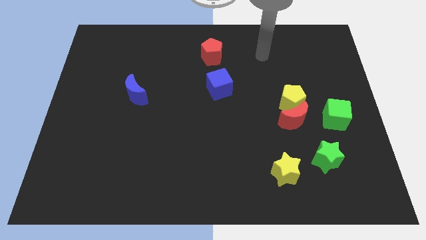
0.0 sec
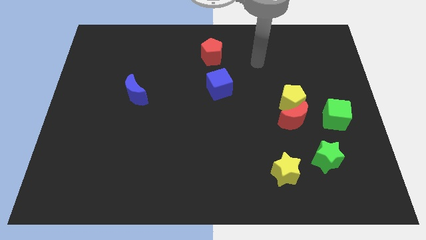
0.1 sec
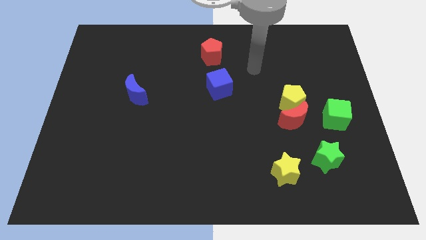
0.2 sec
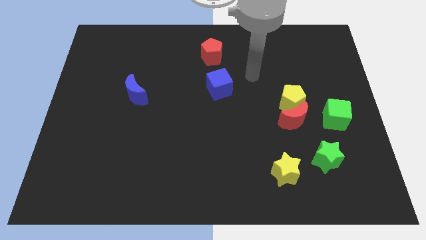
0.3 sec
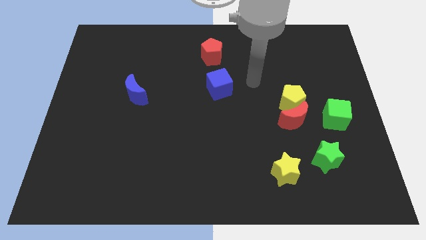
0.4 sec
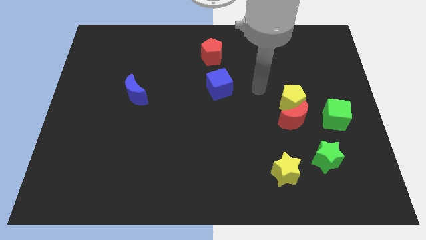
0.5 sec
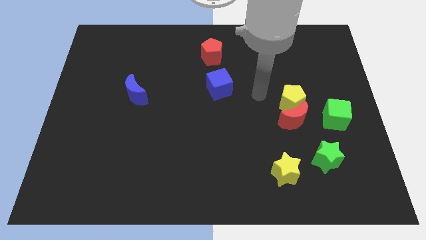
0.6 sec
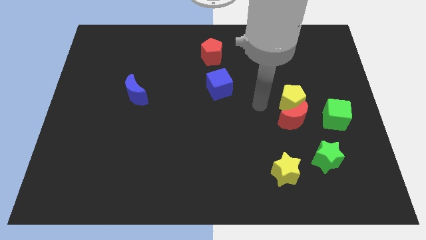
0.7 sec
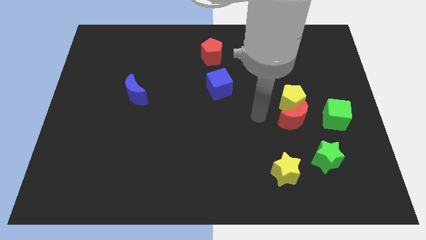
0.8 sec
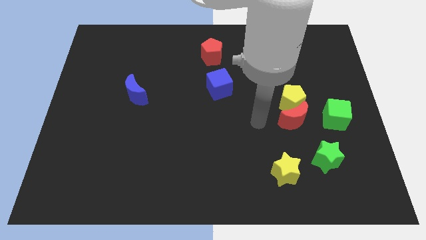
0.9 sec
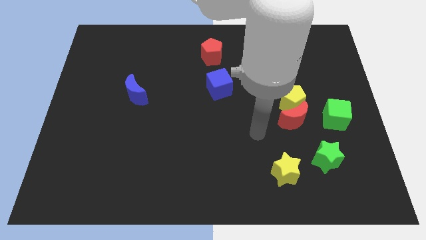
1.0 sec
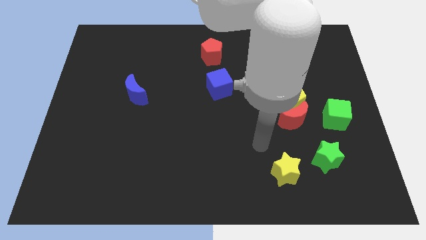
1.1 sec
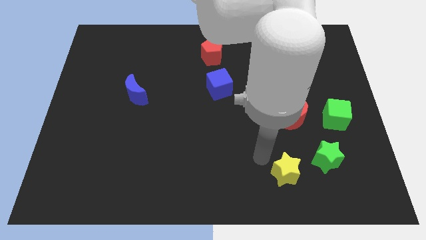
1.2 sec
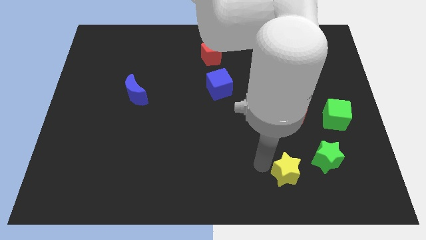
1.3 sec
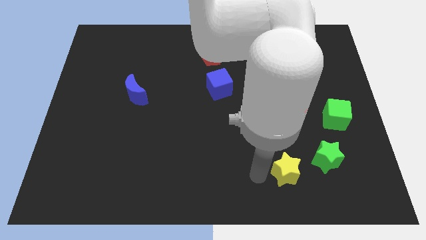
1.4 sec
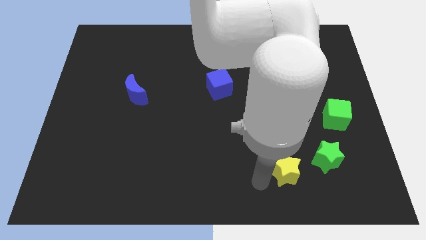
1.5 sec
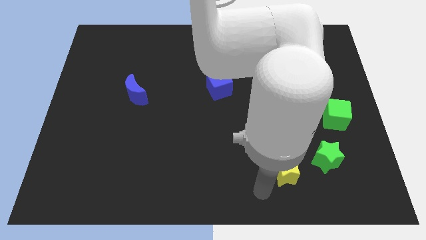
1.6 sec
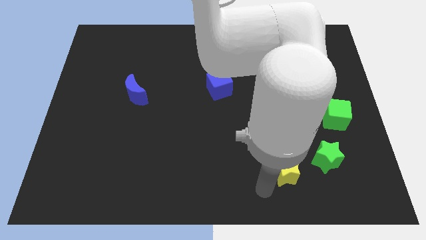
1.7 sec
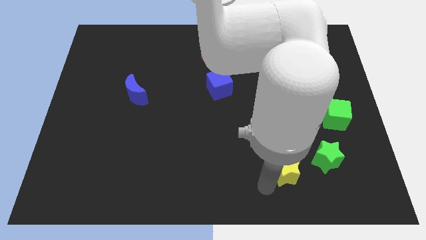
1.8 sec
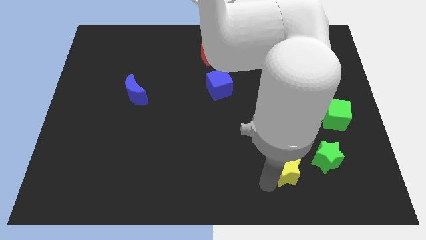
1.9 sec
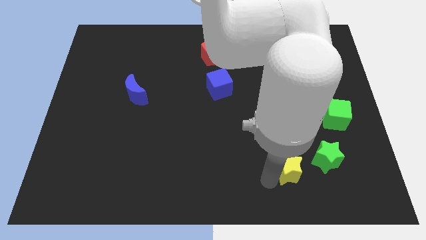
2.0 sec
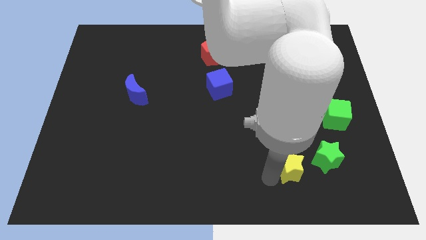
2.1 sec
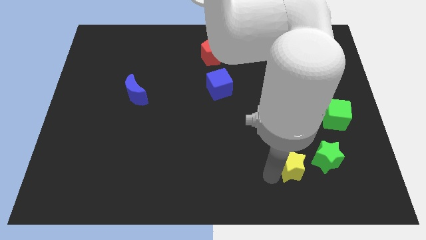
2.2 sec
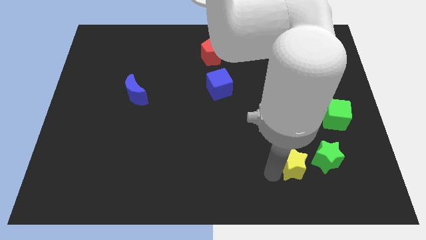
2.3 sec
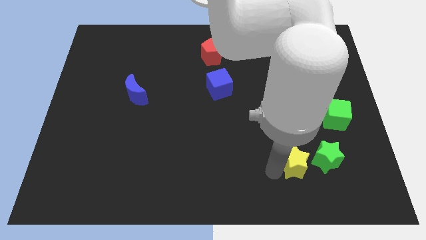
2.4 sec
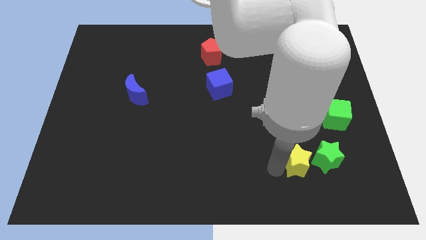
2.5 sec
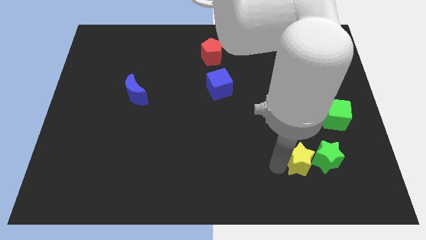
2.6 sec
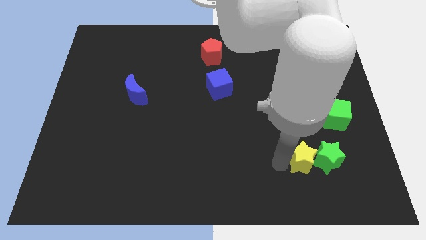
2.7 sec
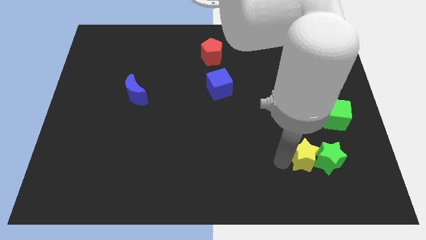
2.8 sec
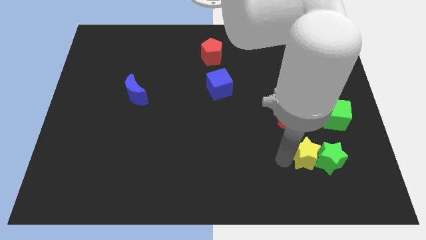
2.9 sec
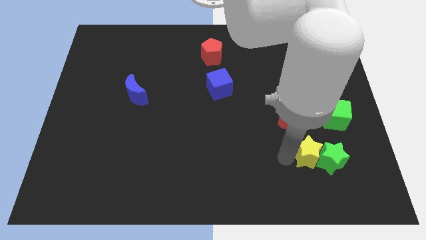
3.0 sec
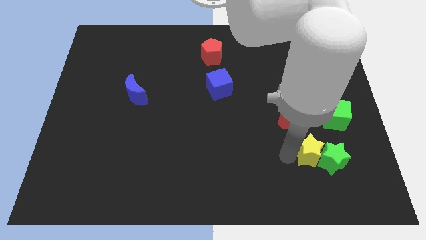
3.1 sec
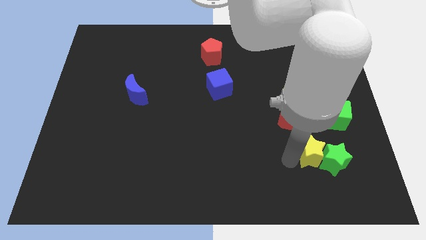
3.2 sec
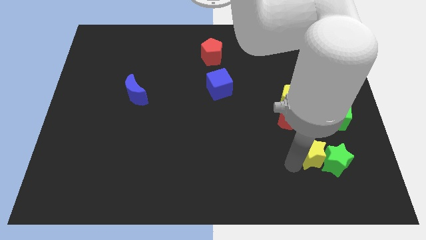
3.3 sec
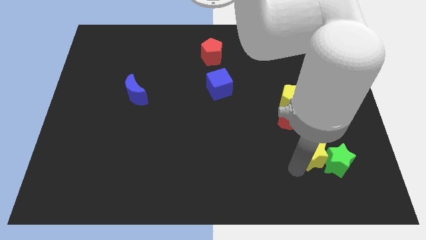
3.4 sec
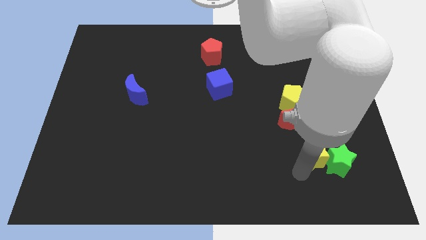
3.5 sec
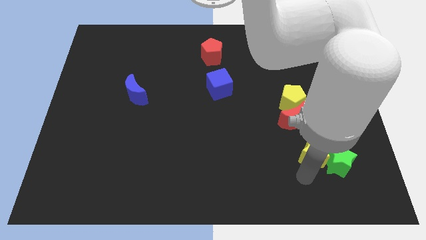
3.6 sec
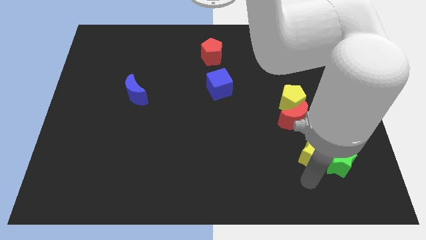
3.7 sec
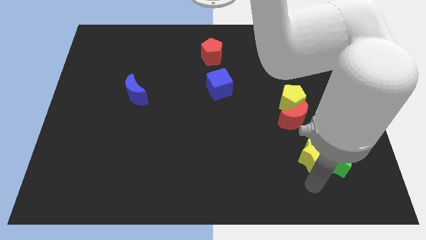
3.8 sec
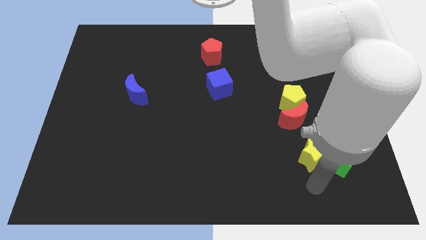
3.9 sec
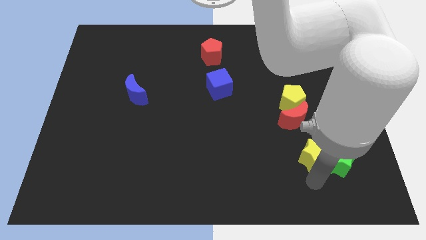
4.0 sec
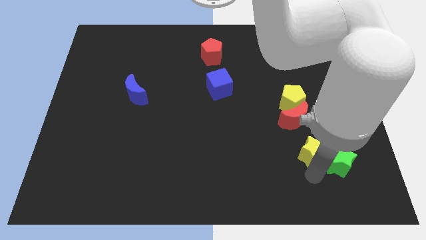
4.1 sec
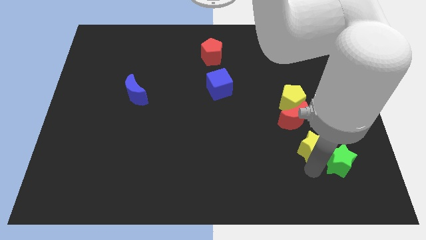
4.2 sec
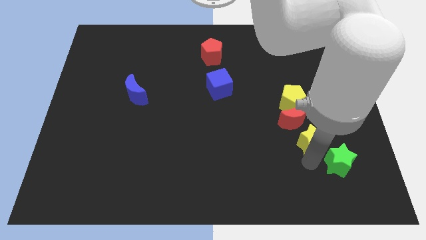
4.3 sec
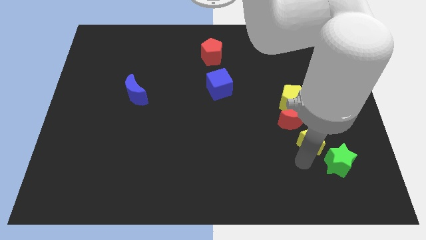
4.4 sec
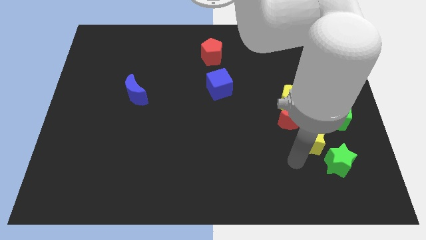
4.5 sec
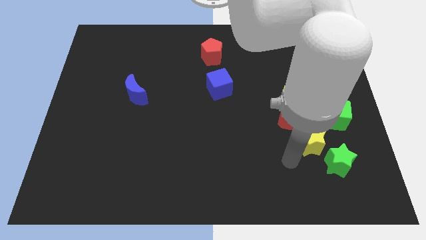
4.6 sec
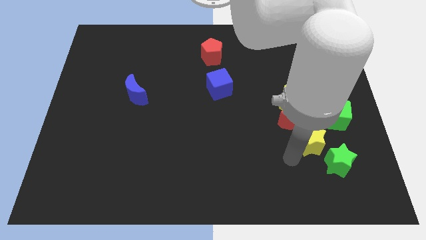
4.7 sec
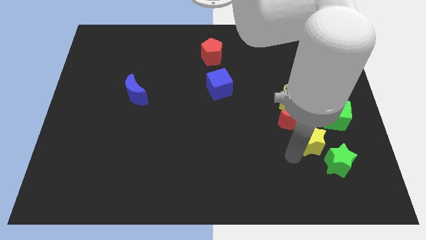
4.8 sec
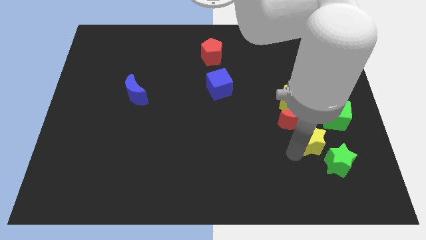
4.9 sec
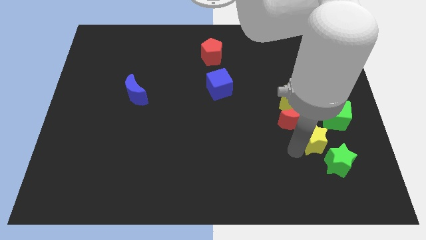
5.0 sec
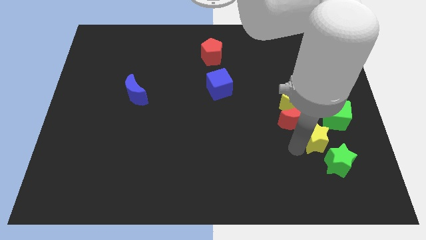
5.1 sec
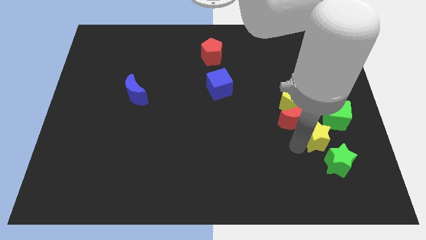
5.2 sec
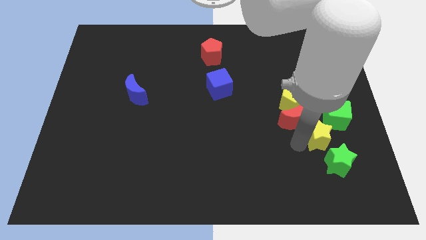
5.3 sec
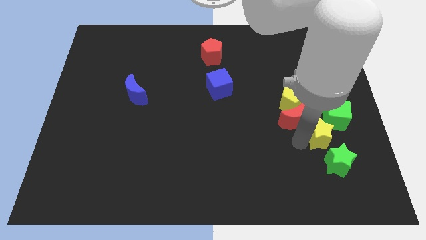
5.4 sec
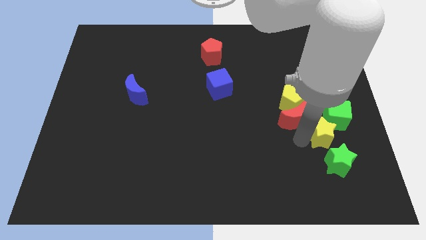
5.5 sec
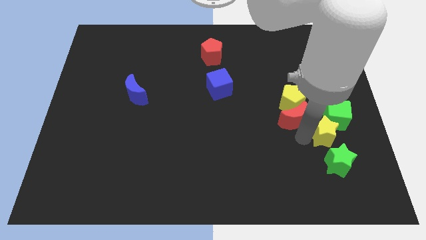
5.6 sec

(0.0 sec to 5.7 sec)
put the yellow star to the green cube

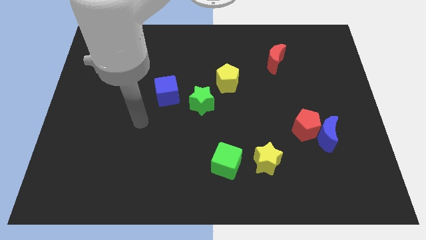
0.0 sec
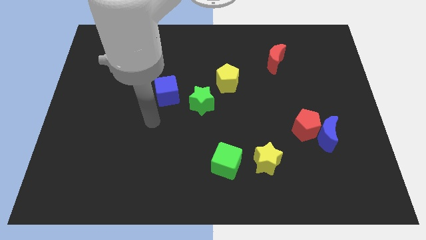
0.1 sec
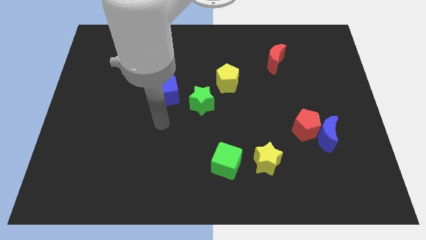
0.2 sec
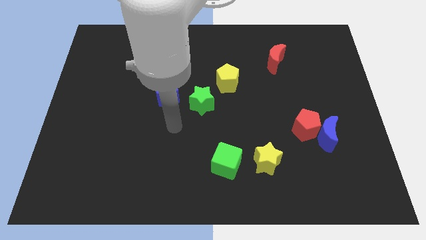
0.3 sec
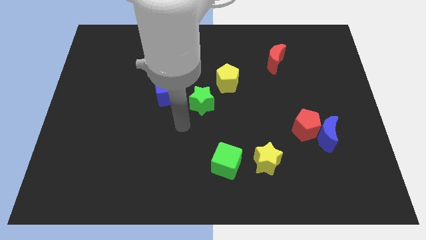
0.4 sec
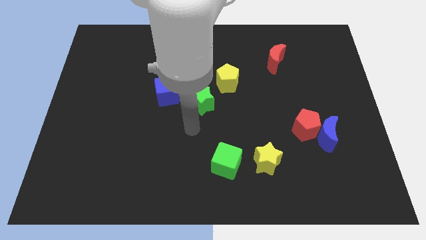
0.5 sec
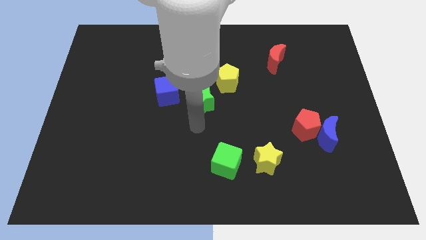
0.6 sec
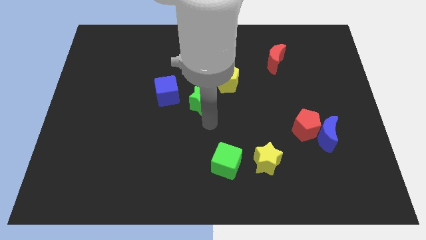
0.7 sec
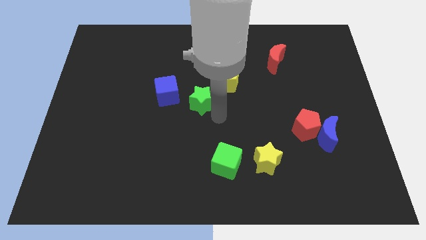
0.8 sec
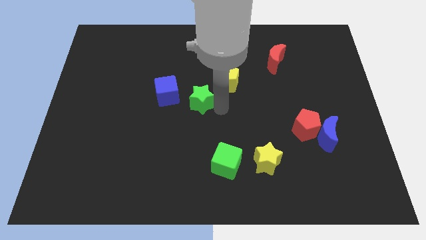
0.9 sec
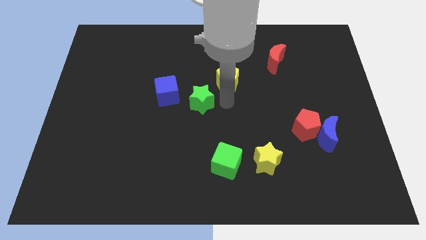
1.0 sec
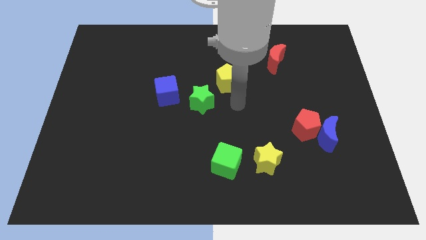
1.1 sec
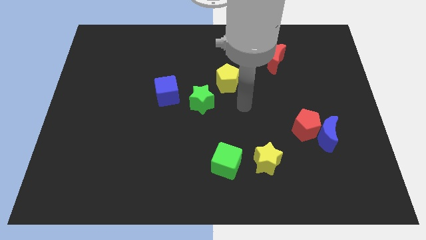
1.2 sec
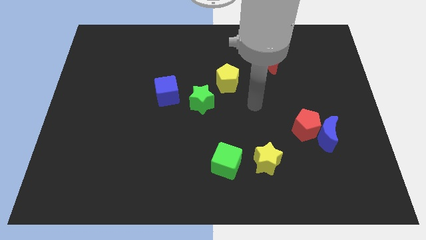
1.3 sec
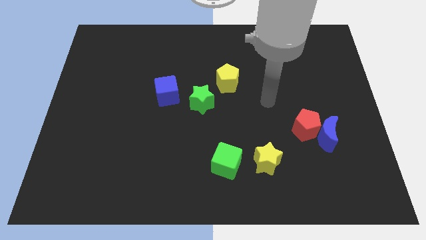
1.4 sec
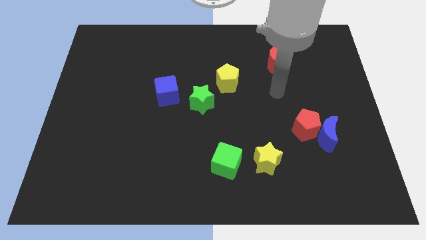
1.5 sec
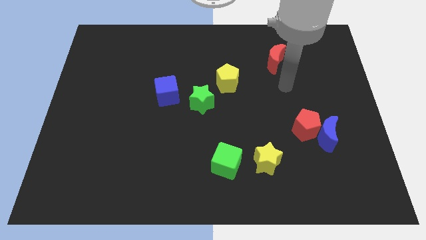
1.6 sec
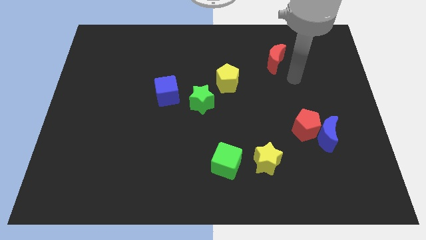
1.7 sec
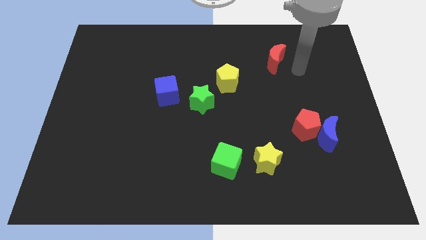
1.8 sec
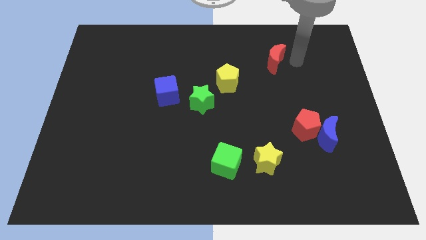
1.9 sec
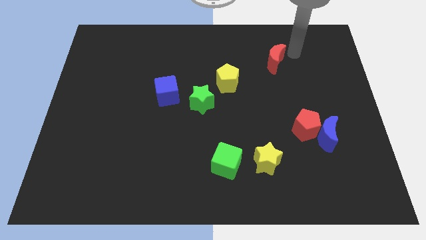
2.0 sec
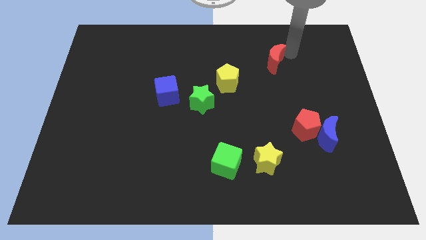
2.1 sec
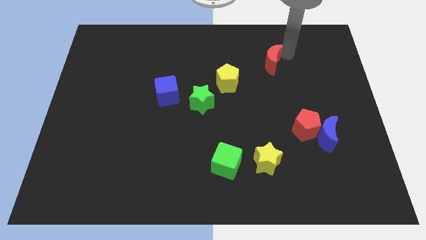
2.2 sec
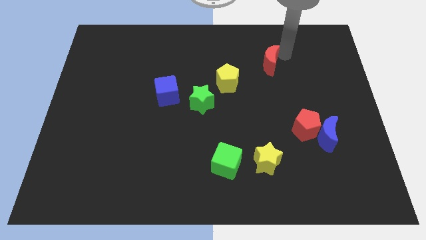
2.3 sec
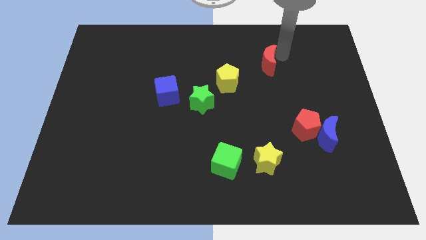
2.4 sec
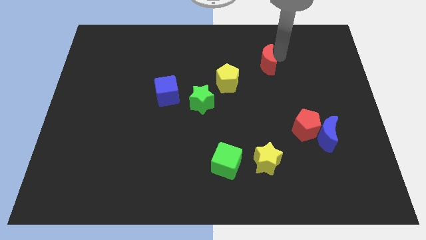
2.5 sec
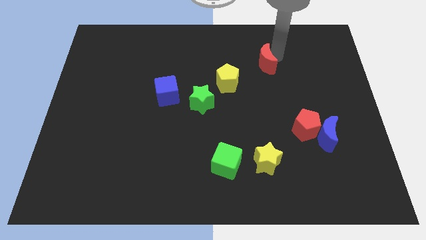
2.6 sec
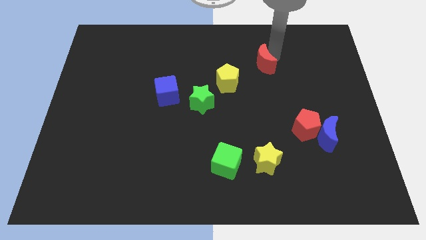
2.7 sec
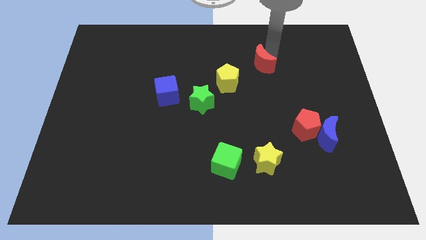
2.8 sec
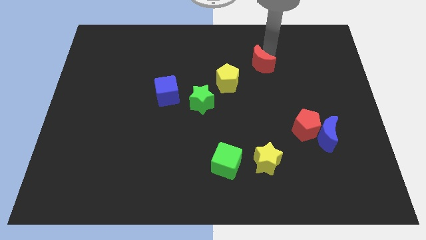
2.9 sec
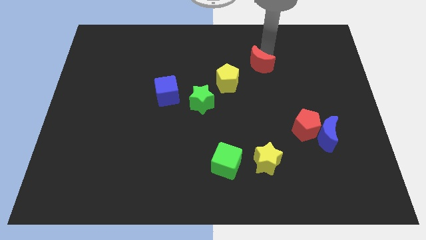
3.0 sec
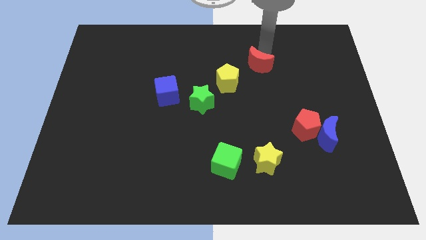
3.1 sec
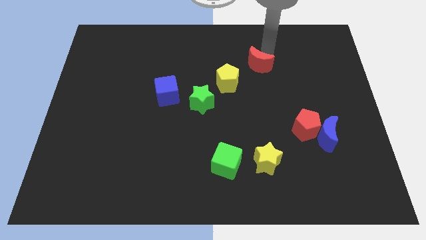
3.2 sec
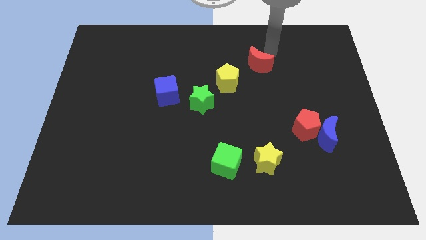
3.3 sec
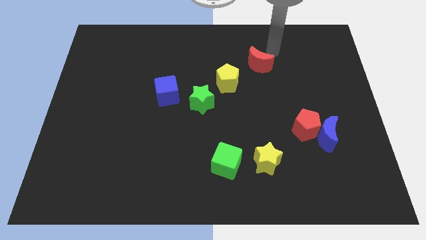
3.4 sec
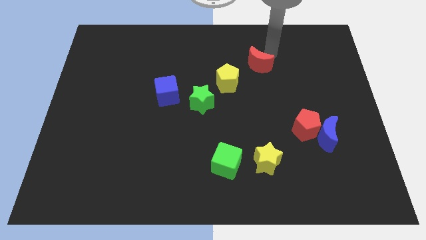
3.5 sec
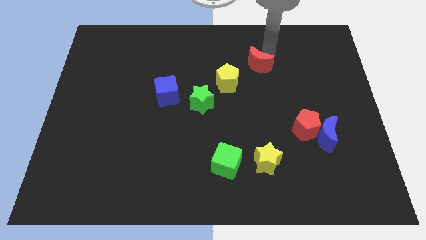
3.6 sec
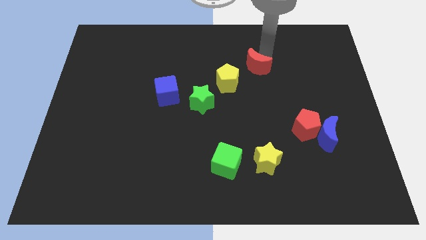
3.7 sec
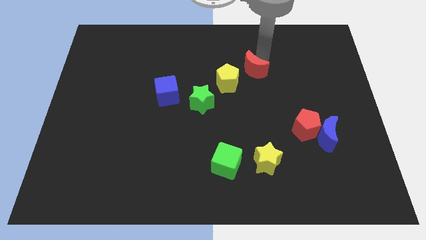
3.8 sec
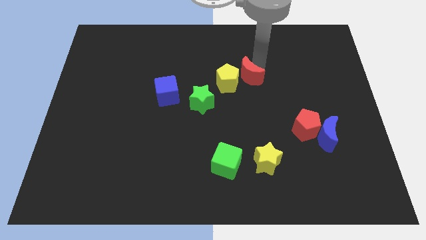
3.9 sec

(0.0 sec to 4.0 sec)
put the red moon towards the yellow pentagon
